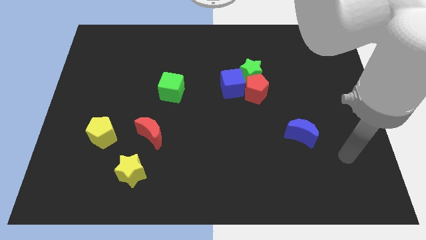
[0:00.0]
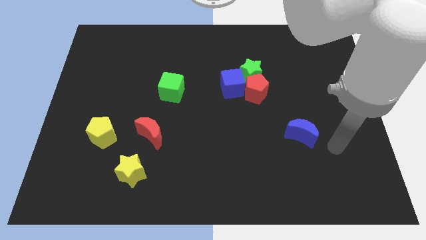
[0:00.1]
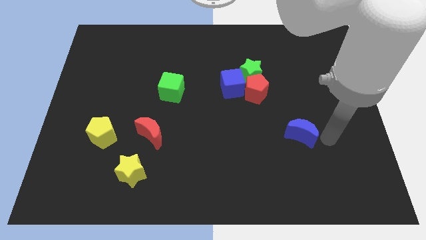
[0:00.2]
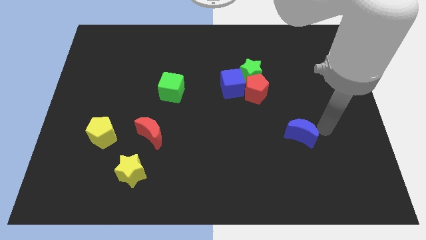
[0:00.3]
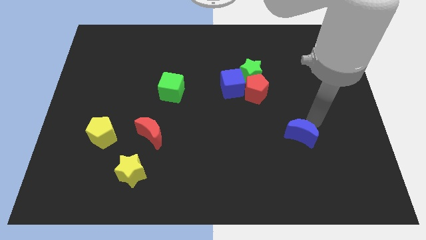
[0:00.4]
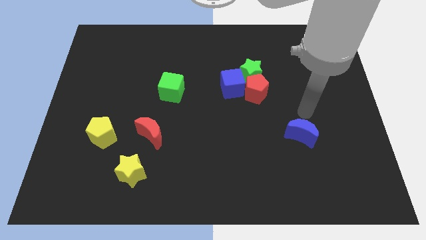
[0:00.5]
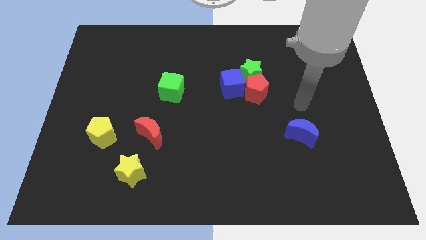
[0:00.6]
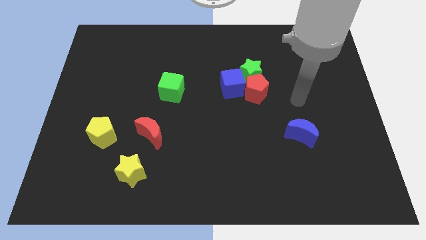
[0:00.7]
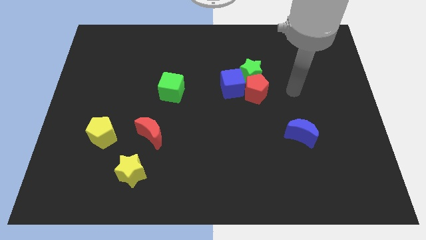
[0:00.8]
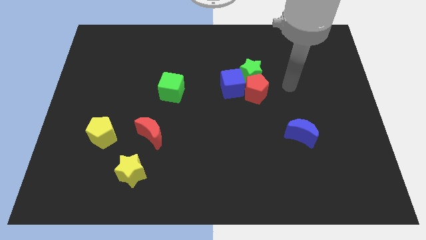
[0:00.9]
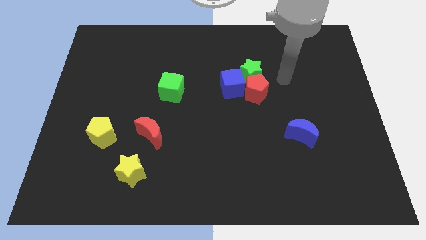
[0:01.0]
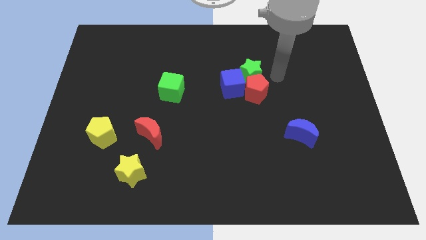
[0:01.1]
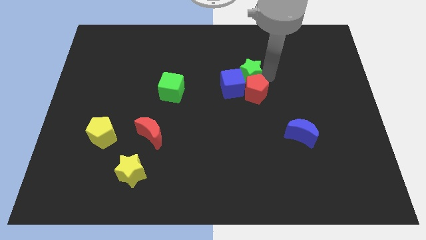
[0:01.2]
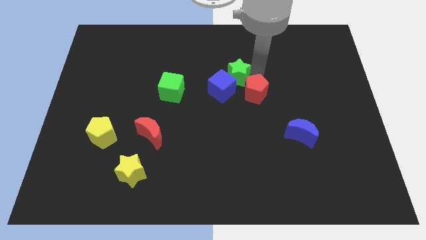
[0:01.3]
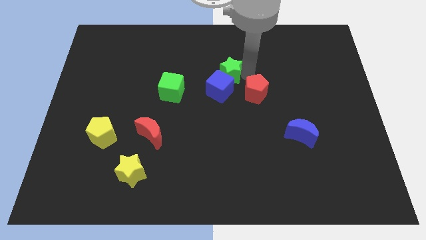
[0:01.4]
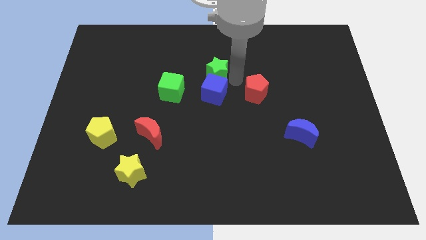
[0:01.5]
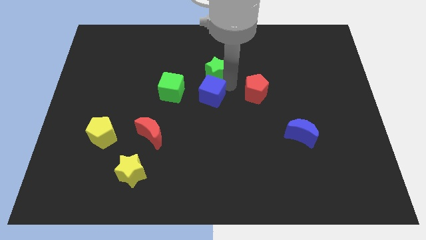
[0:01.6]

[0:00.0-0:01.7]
pull the red pentagon apart from the green star and blue cube

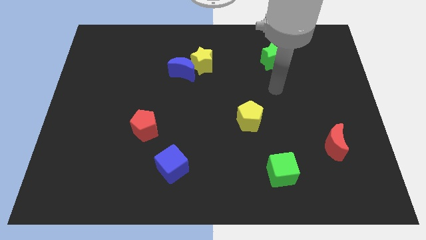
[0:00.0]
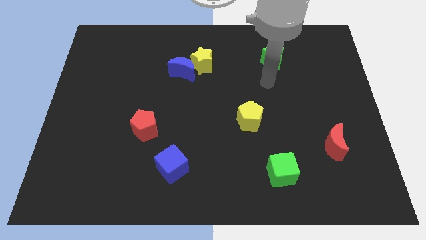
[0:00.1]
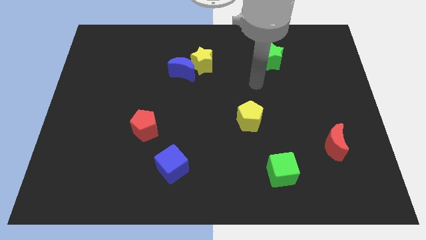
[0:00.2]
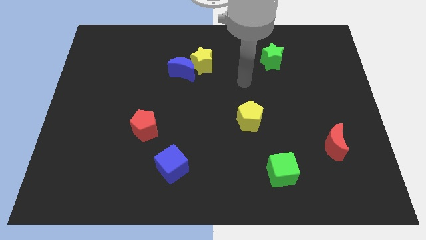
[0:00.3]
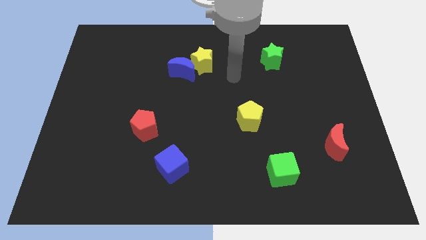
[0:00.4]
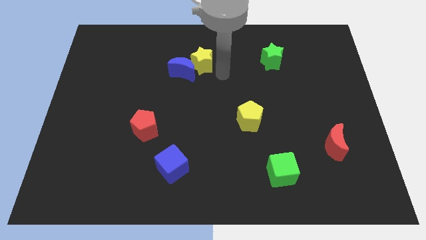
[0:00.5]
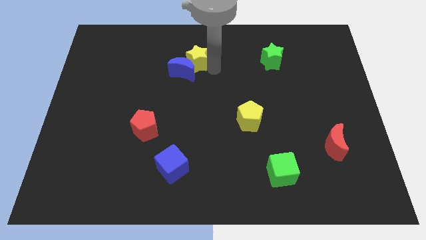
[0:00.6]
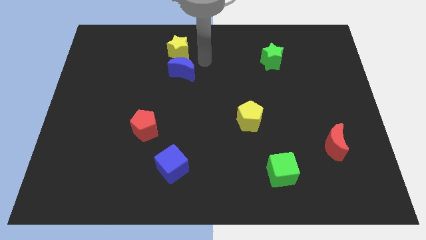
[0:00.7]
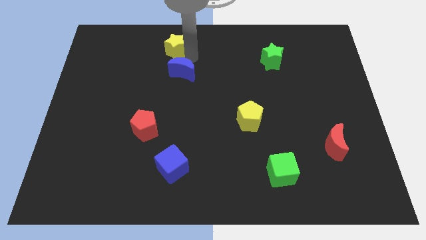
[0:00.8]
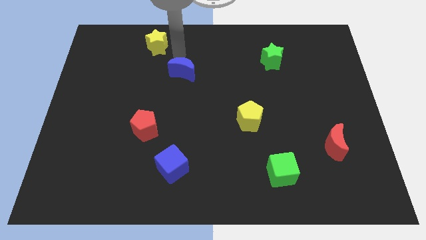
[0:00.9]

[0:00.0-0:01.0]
separate the blue moon from the yellow star

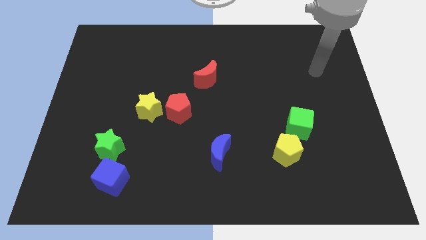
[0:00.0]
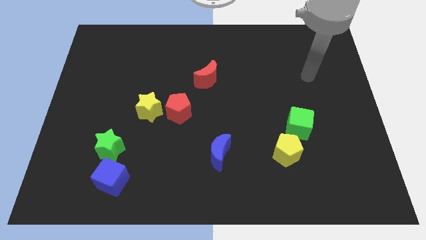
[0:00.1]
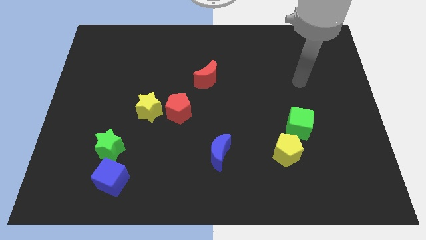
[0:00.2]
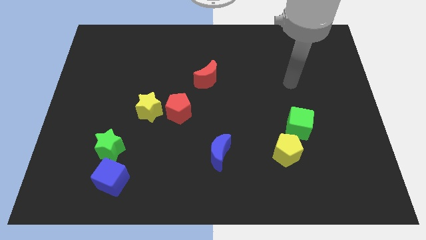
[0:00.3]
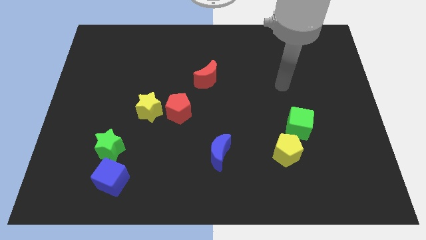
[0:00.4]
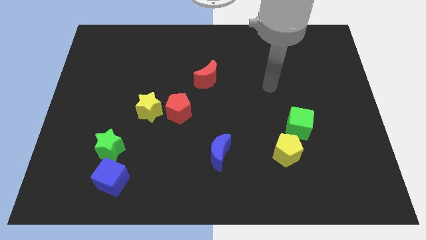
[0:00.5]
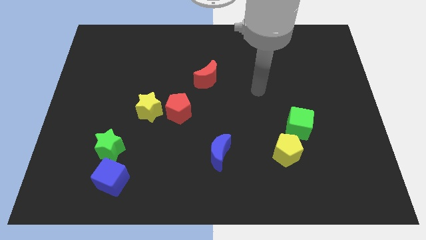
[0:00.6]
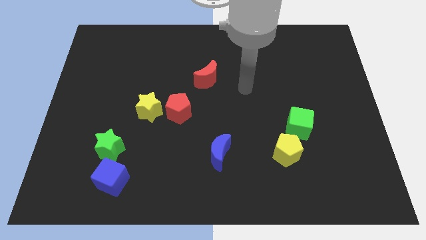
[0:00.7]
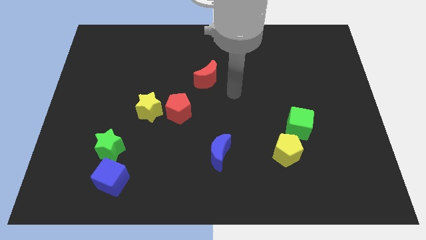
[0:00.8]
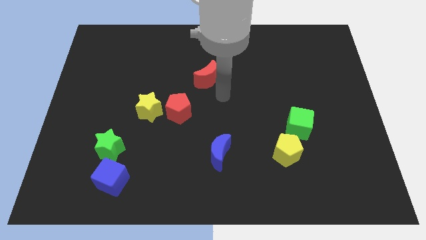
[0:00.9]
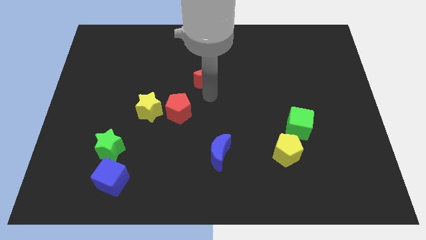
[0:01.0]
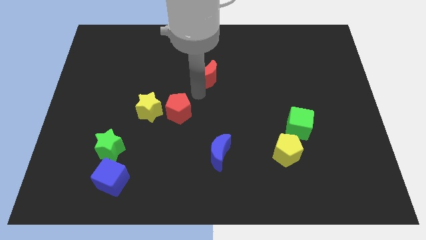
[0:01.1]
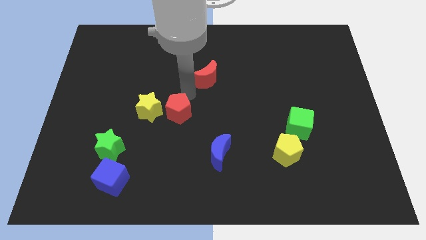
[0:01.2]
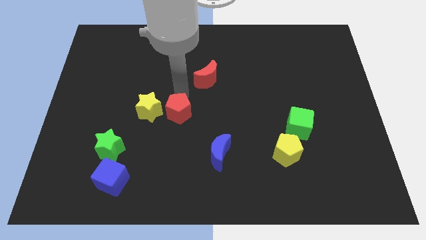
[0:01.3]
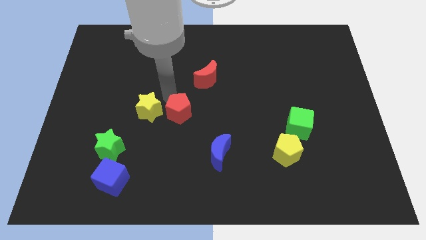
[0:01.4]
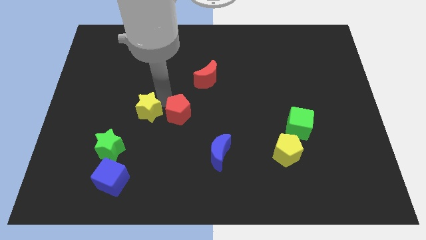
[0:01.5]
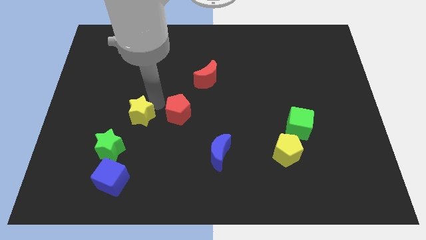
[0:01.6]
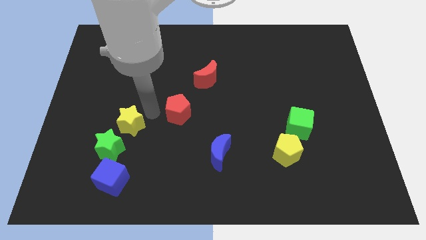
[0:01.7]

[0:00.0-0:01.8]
move the red pentagon away from the yellow star

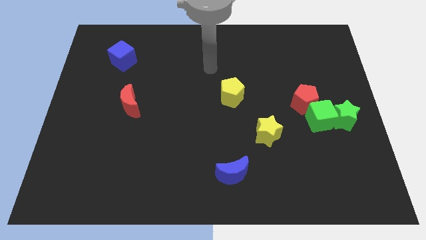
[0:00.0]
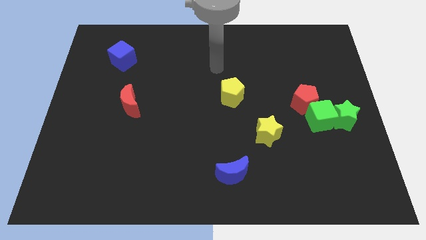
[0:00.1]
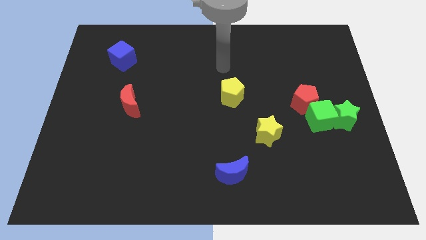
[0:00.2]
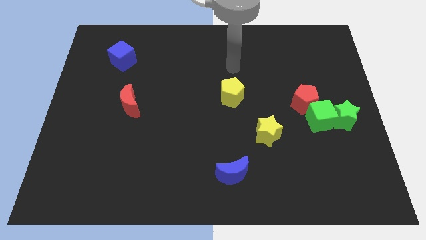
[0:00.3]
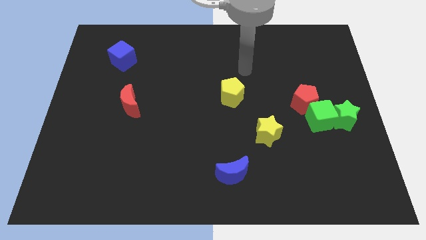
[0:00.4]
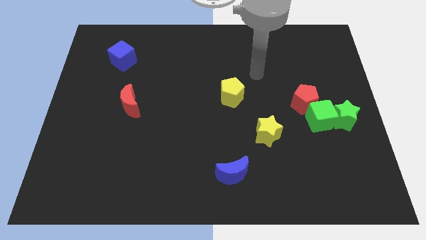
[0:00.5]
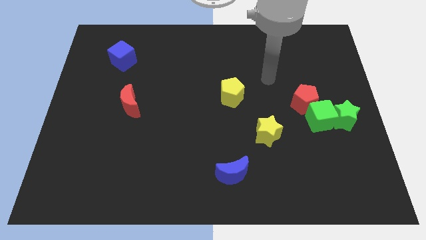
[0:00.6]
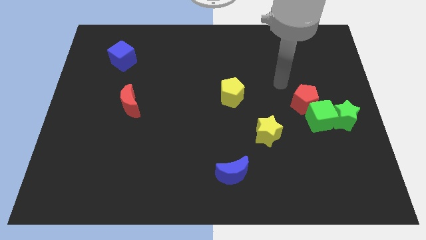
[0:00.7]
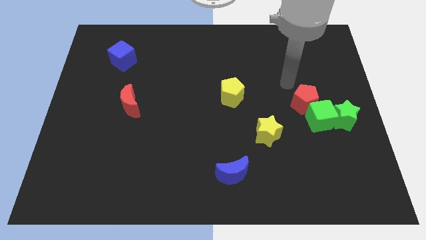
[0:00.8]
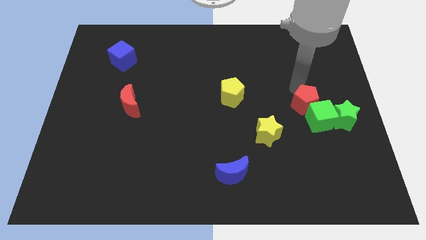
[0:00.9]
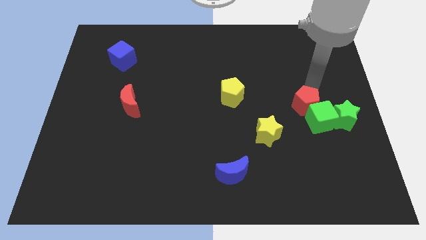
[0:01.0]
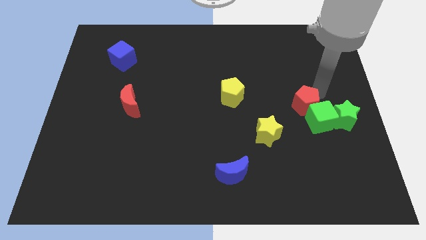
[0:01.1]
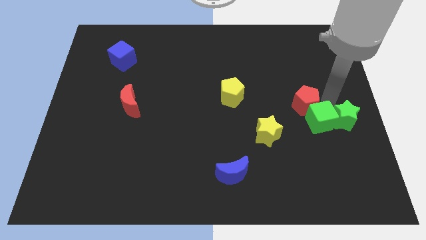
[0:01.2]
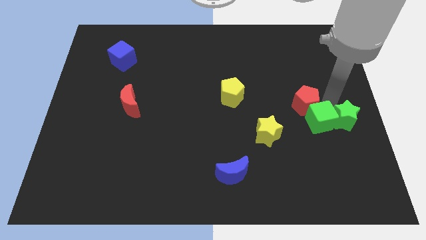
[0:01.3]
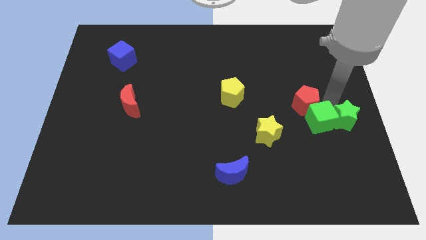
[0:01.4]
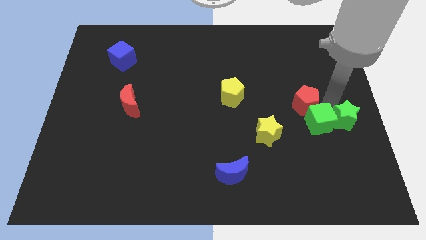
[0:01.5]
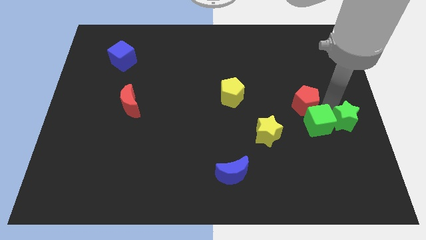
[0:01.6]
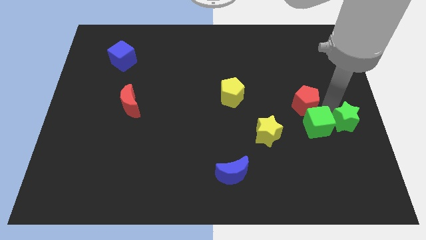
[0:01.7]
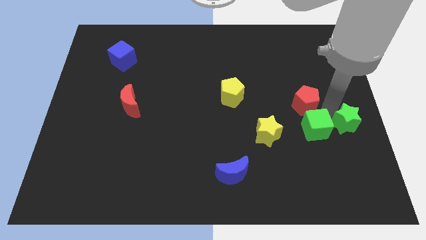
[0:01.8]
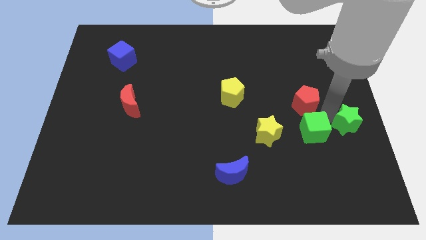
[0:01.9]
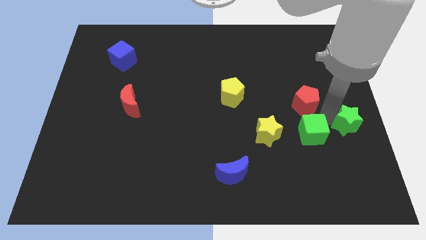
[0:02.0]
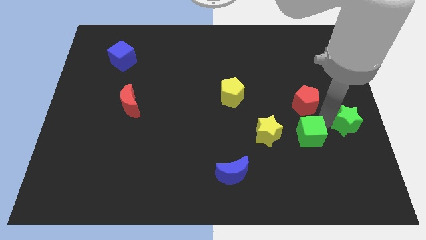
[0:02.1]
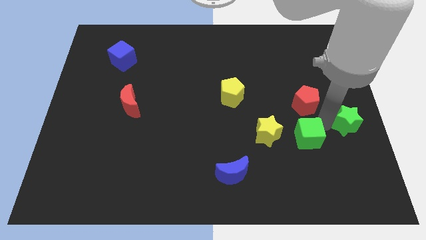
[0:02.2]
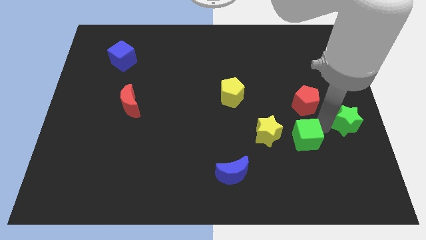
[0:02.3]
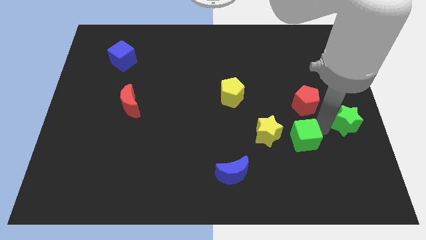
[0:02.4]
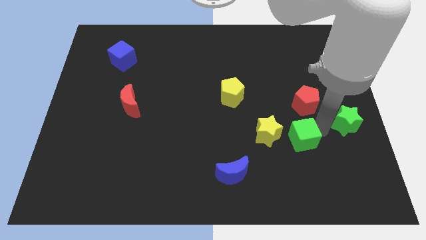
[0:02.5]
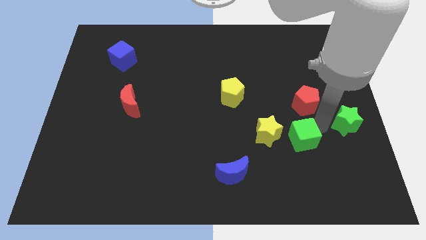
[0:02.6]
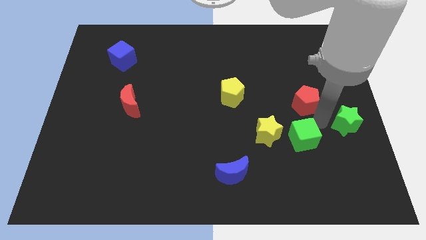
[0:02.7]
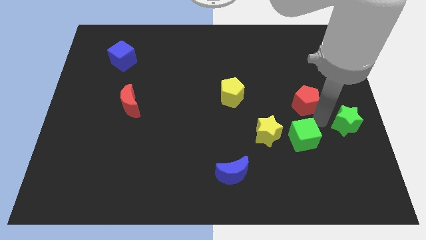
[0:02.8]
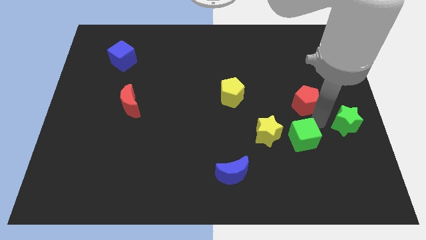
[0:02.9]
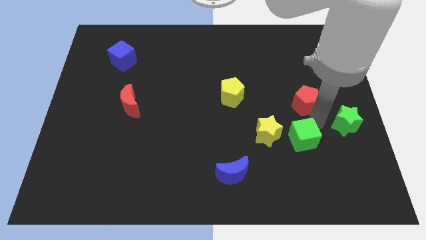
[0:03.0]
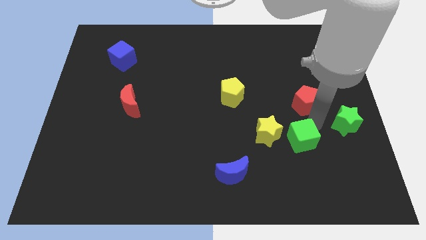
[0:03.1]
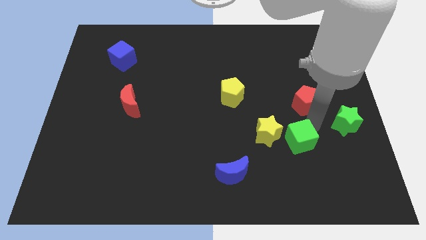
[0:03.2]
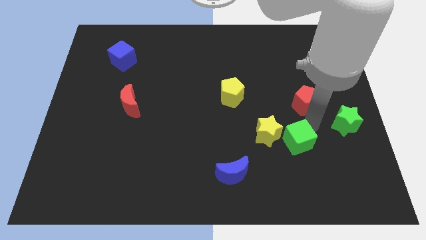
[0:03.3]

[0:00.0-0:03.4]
move the green cube away from the green star and red pentagon

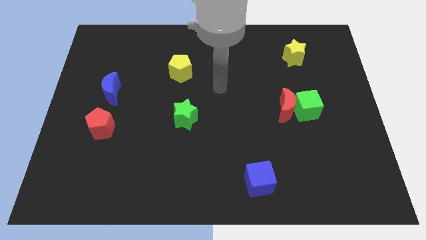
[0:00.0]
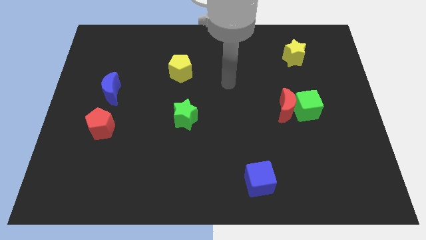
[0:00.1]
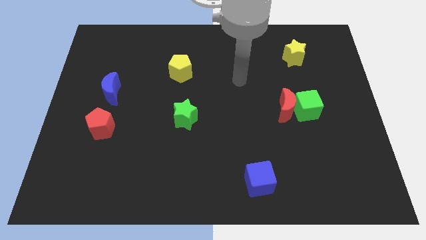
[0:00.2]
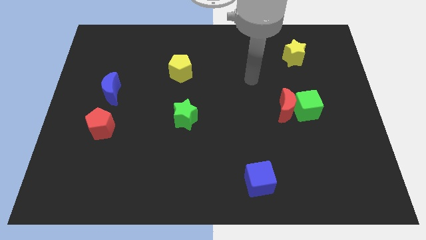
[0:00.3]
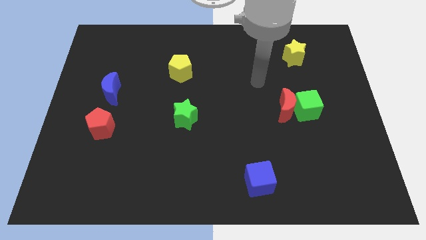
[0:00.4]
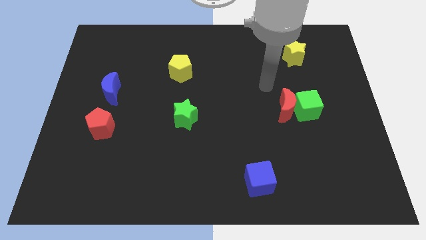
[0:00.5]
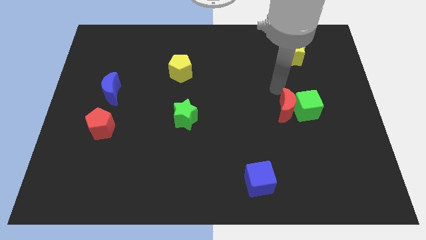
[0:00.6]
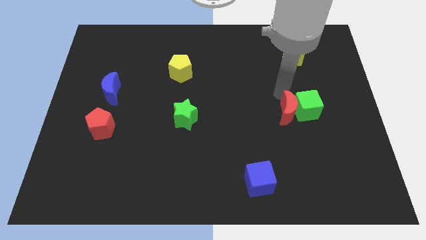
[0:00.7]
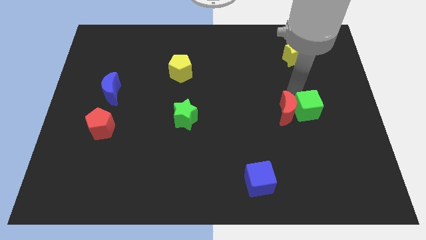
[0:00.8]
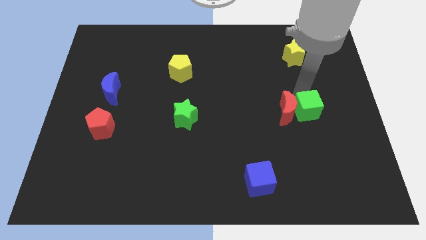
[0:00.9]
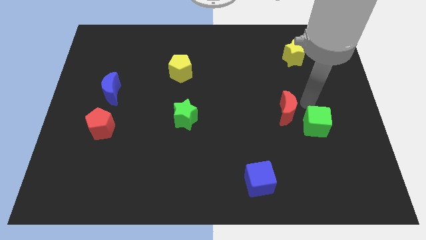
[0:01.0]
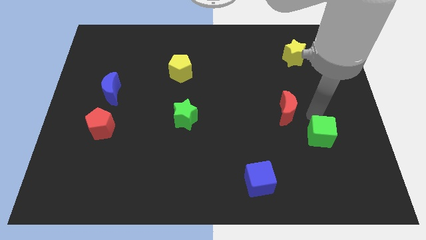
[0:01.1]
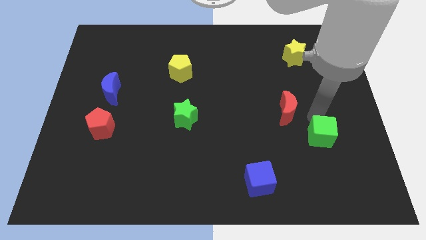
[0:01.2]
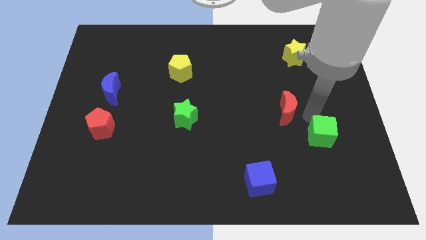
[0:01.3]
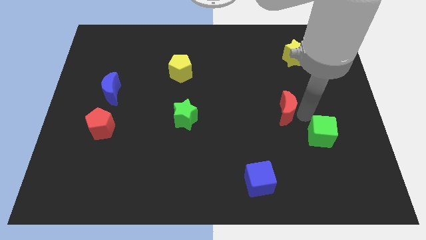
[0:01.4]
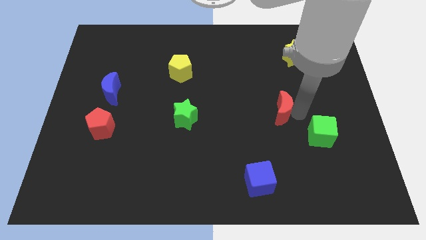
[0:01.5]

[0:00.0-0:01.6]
separate the red moon from the green cube
